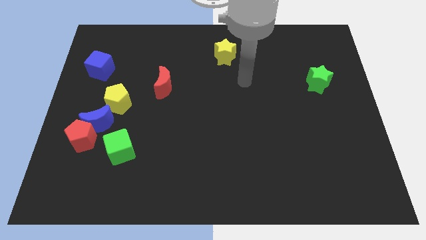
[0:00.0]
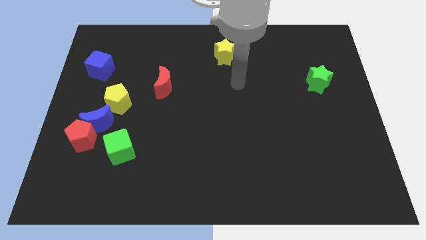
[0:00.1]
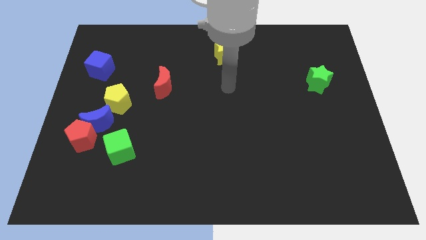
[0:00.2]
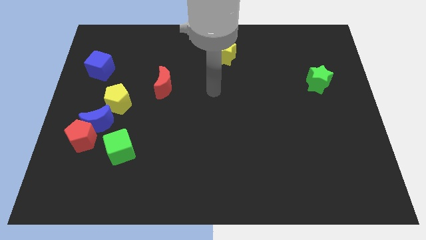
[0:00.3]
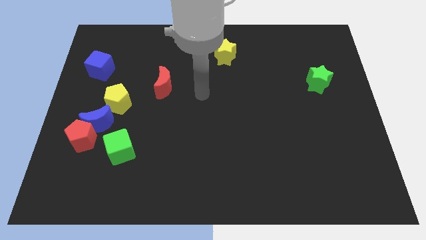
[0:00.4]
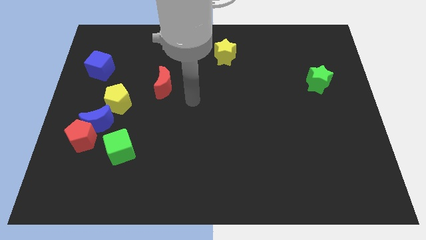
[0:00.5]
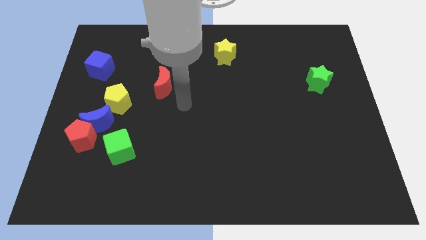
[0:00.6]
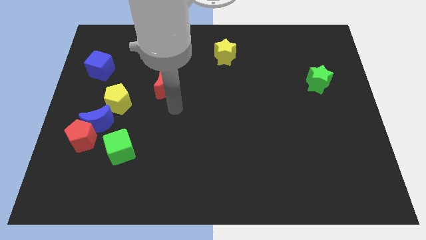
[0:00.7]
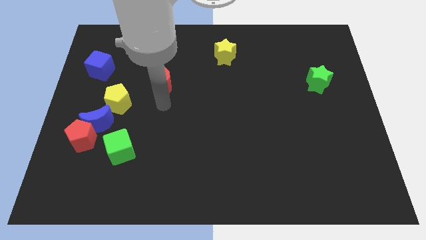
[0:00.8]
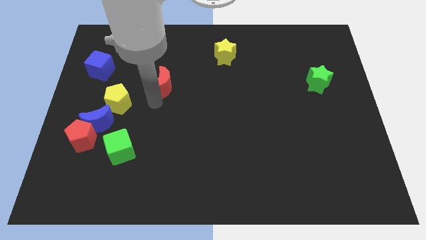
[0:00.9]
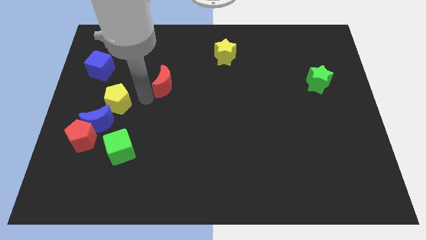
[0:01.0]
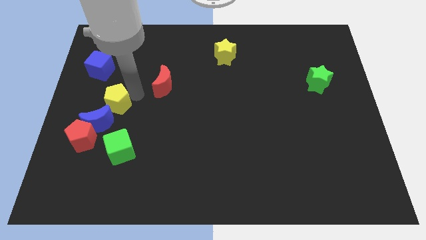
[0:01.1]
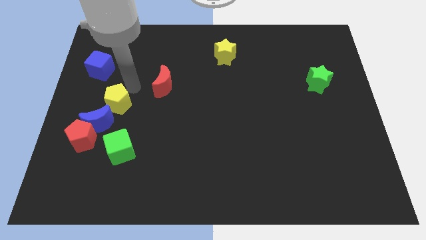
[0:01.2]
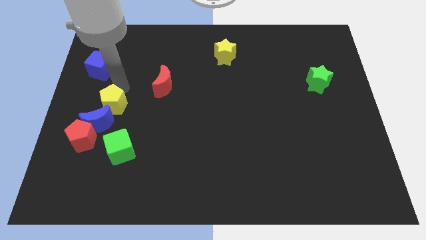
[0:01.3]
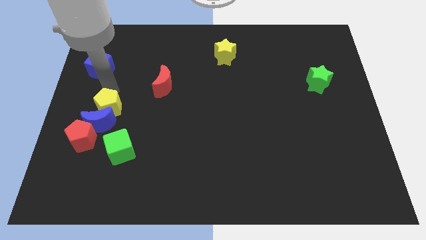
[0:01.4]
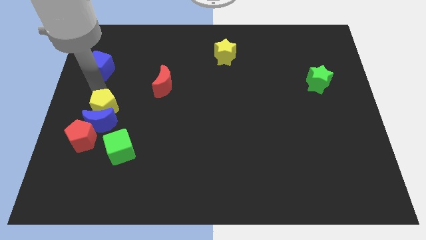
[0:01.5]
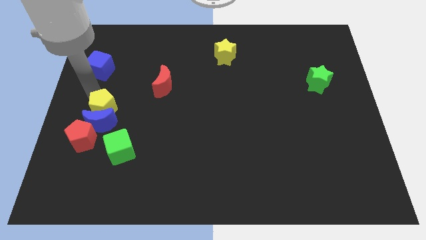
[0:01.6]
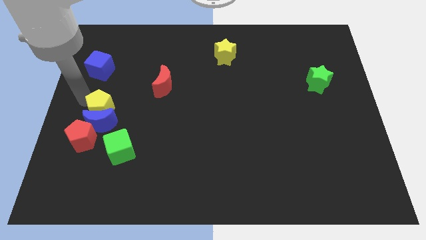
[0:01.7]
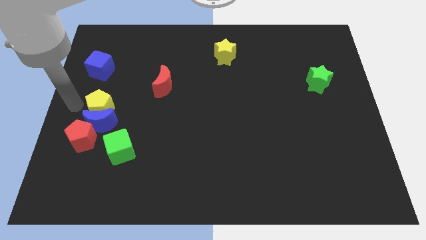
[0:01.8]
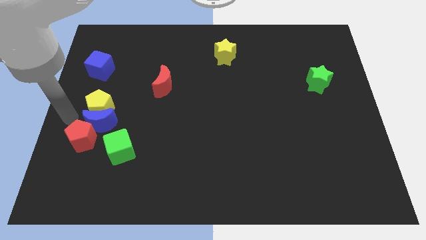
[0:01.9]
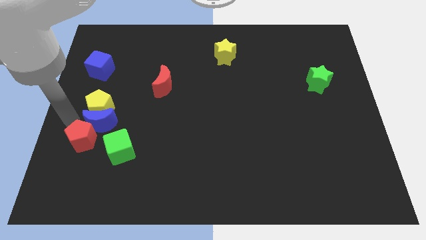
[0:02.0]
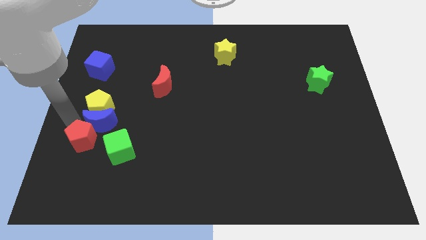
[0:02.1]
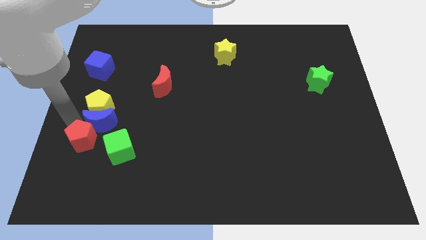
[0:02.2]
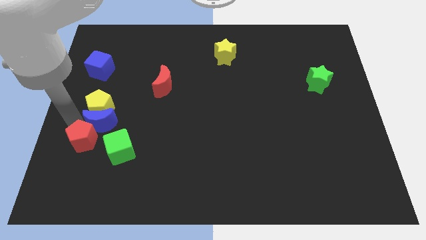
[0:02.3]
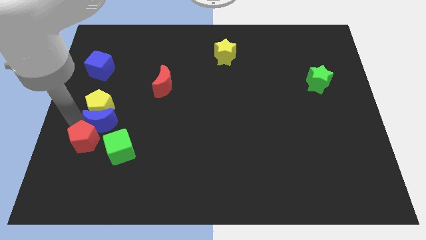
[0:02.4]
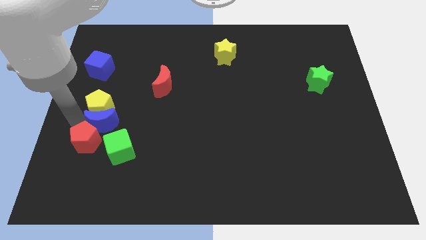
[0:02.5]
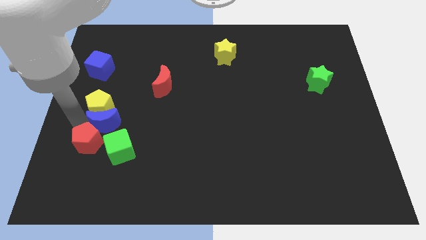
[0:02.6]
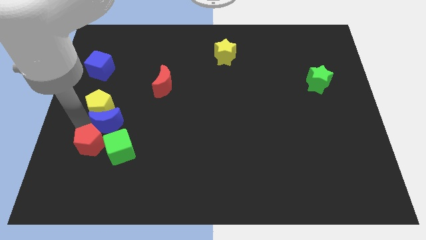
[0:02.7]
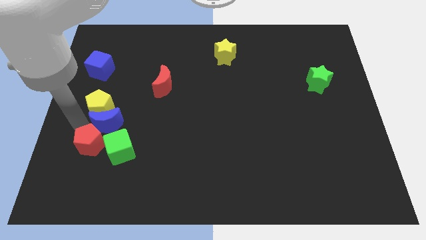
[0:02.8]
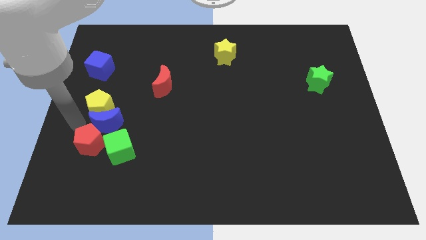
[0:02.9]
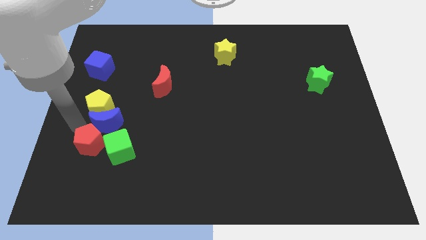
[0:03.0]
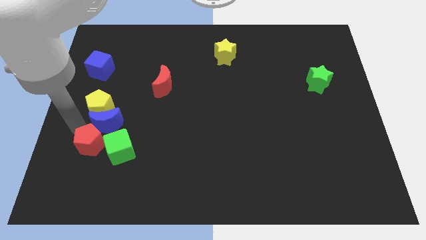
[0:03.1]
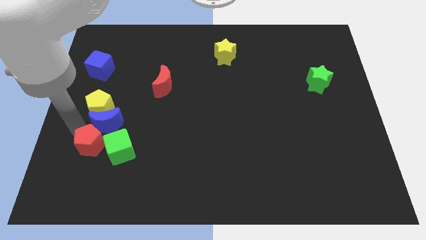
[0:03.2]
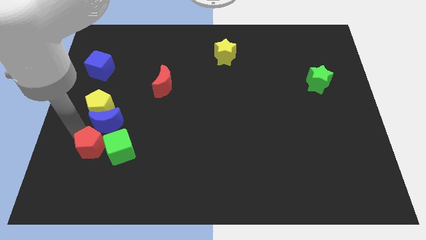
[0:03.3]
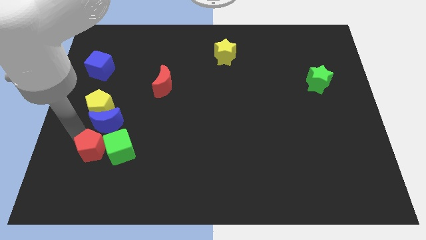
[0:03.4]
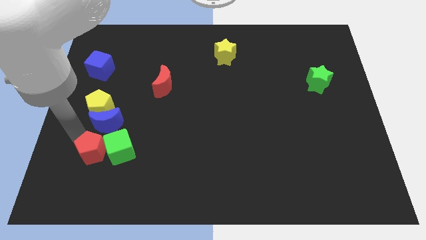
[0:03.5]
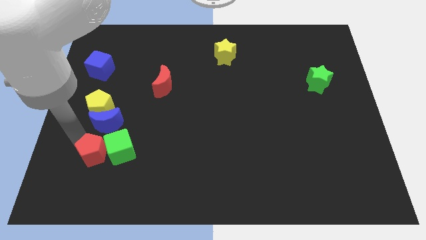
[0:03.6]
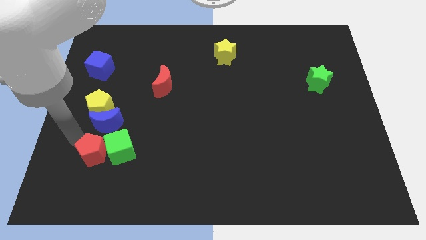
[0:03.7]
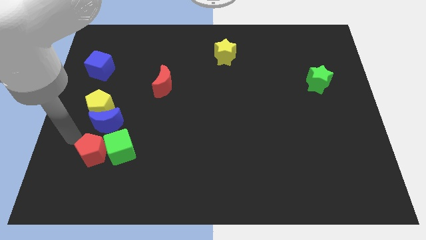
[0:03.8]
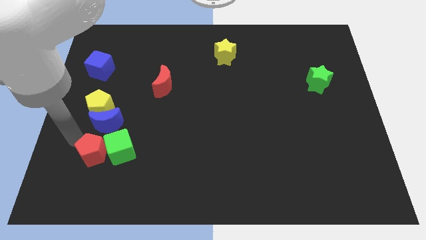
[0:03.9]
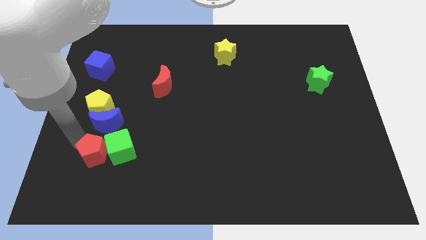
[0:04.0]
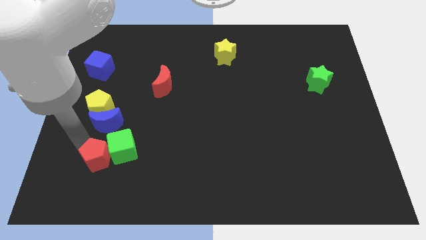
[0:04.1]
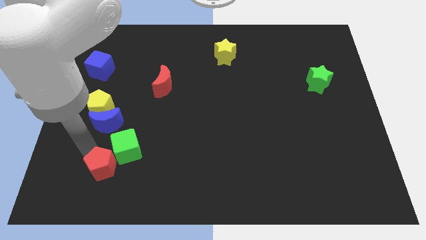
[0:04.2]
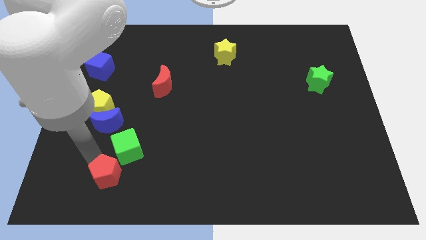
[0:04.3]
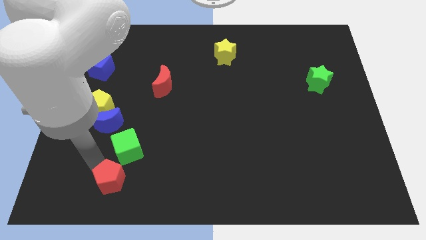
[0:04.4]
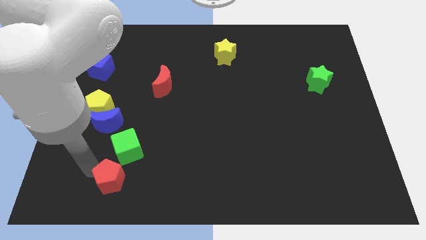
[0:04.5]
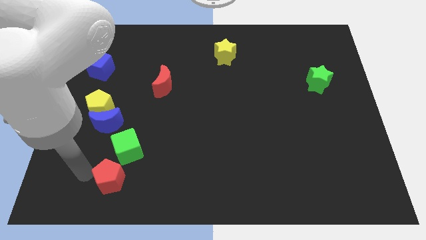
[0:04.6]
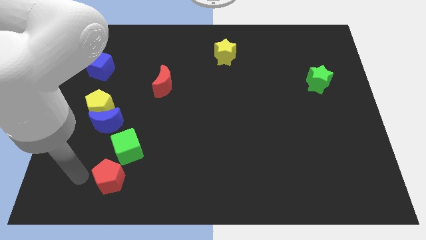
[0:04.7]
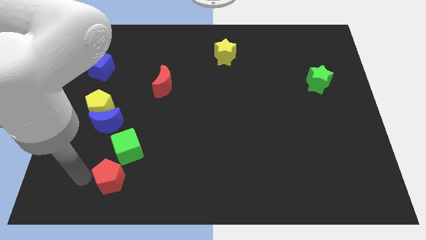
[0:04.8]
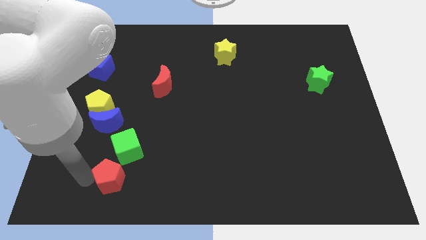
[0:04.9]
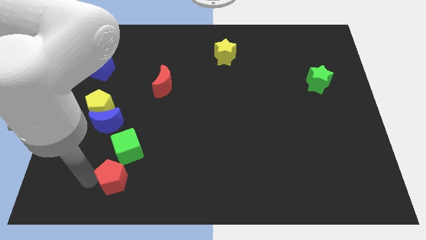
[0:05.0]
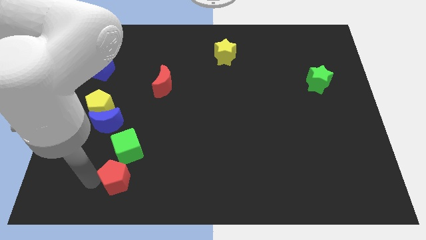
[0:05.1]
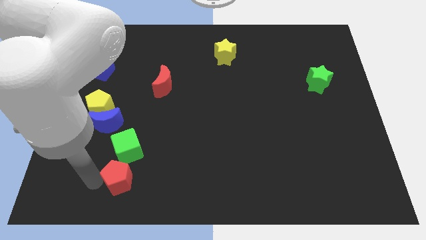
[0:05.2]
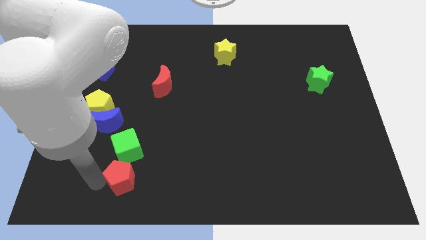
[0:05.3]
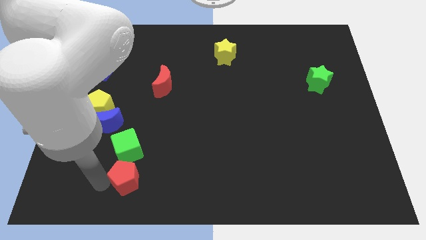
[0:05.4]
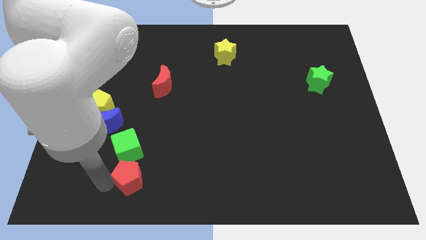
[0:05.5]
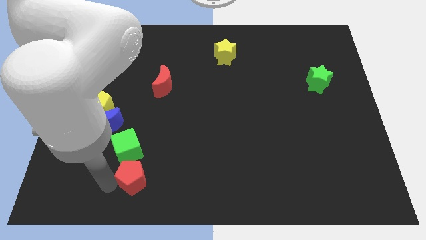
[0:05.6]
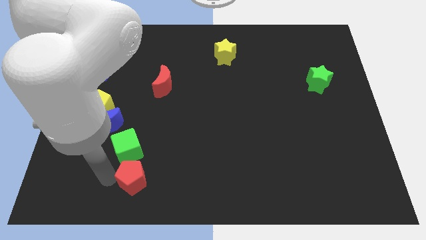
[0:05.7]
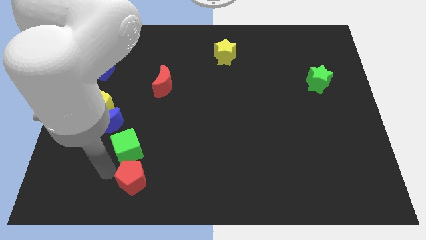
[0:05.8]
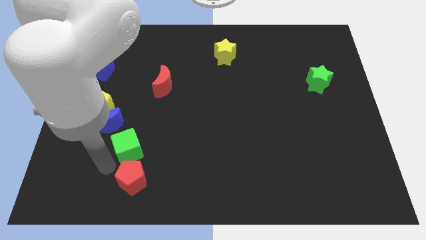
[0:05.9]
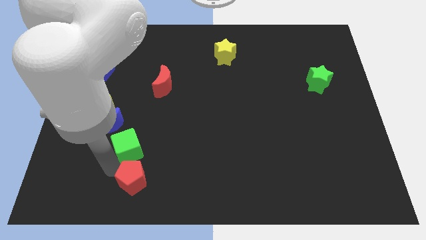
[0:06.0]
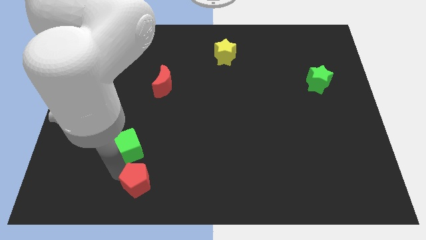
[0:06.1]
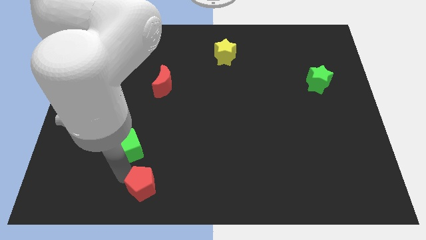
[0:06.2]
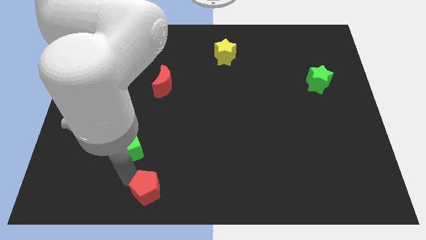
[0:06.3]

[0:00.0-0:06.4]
move the red pentagon to the bottom

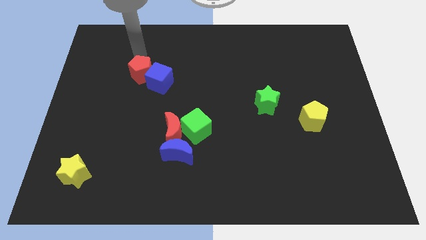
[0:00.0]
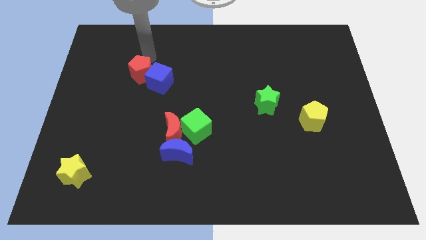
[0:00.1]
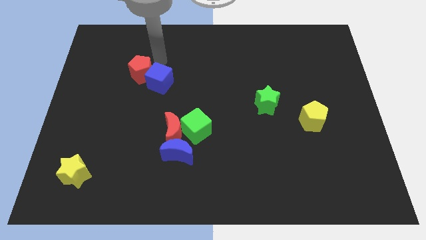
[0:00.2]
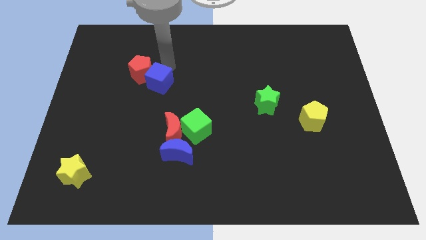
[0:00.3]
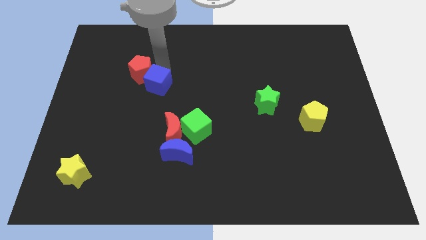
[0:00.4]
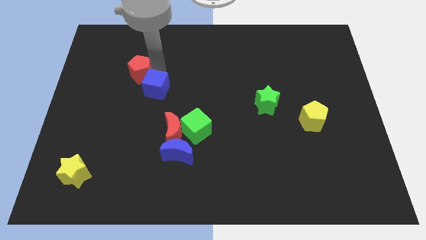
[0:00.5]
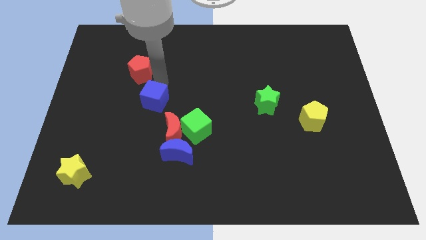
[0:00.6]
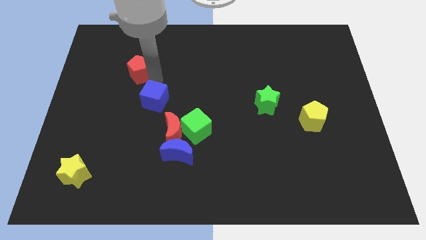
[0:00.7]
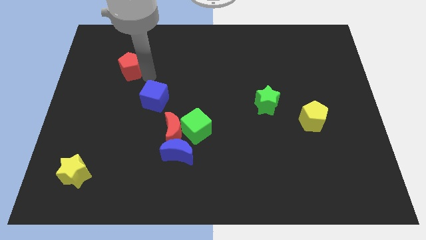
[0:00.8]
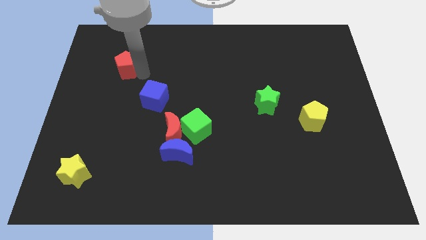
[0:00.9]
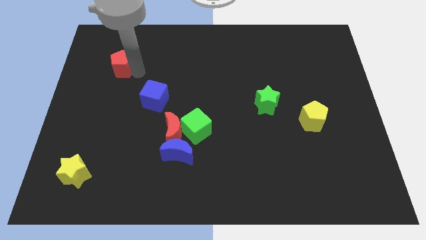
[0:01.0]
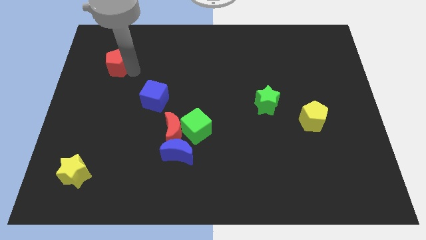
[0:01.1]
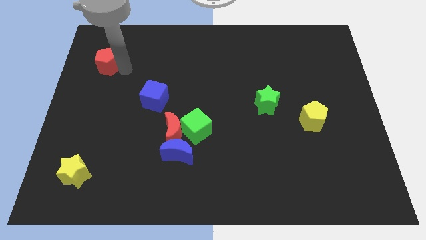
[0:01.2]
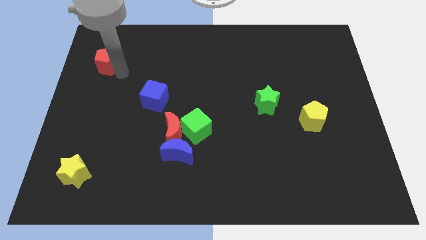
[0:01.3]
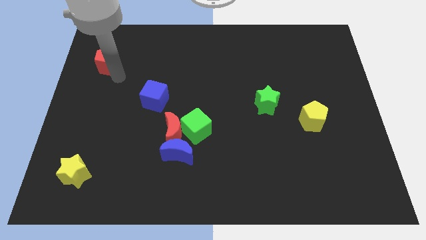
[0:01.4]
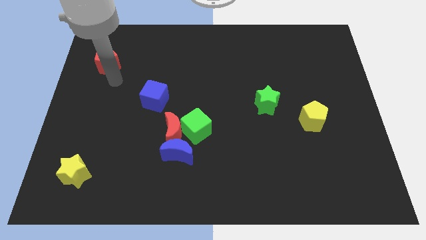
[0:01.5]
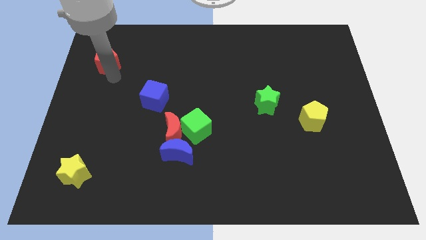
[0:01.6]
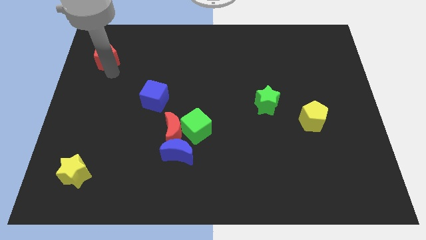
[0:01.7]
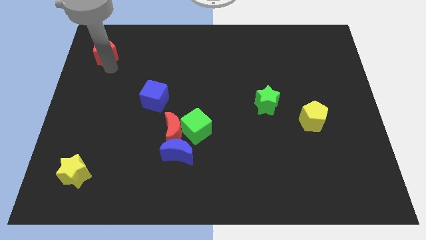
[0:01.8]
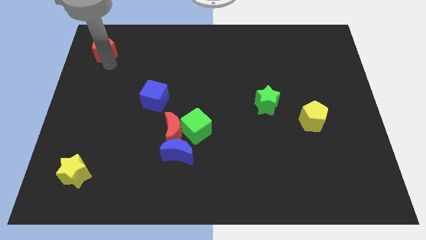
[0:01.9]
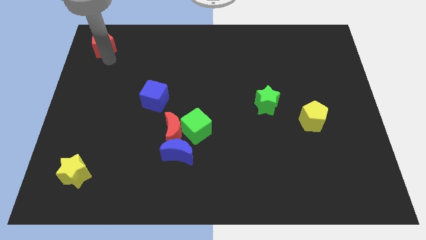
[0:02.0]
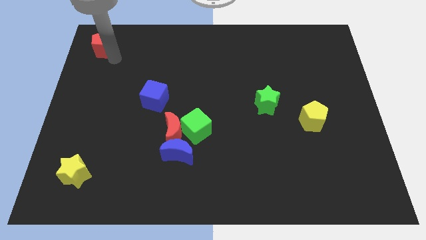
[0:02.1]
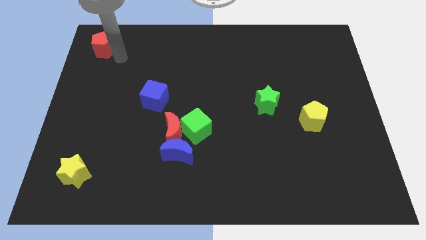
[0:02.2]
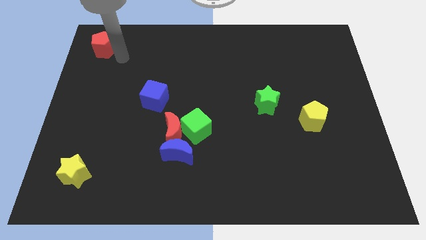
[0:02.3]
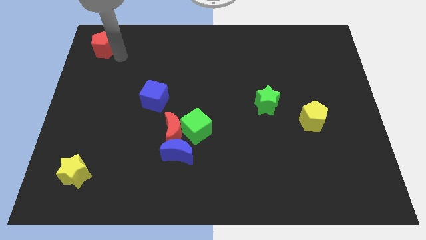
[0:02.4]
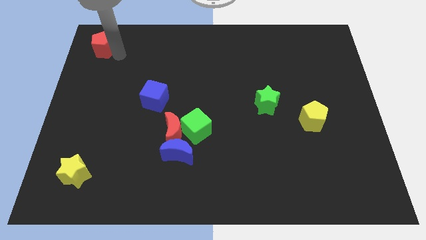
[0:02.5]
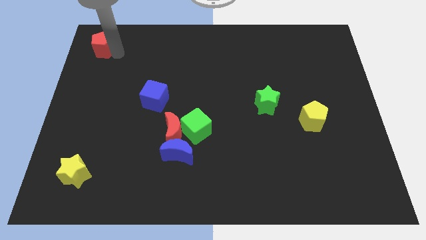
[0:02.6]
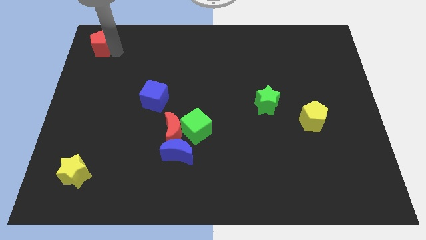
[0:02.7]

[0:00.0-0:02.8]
push the red pentagon to the top left of the board
